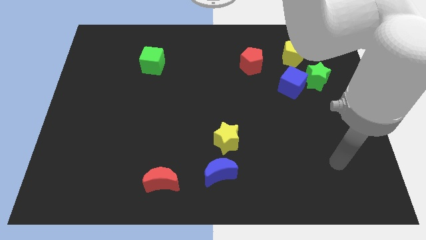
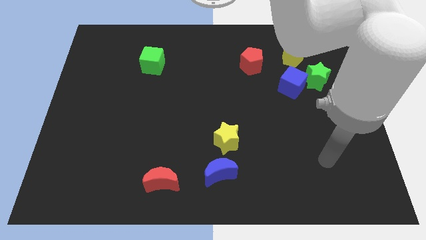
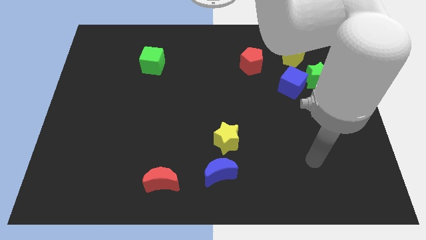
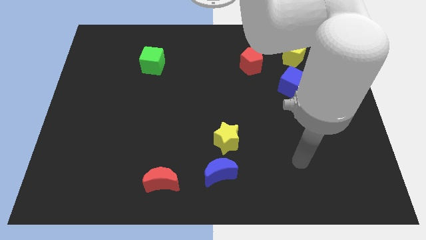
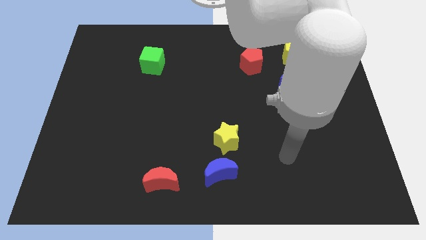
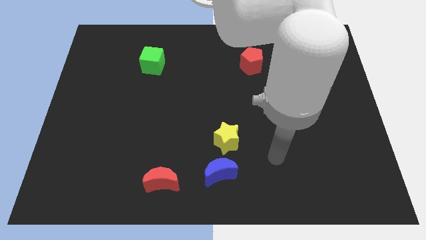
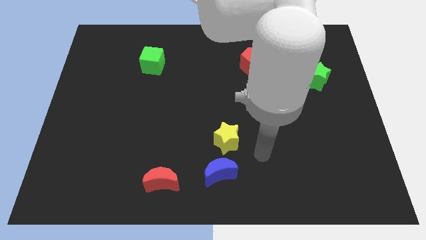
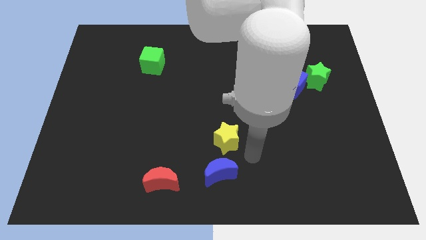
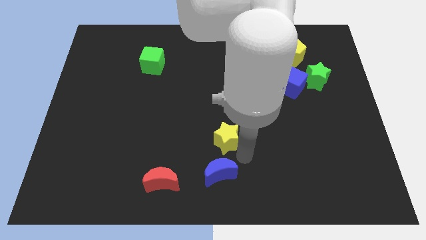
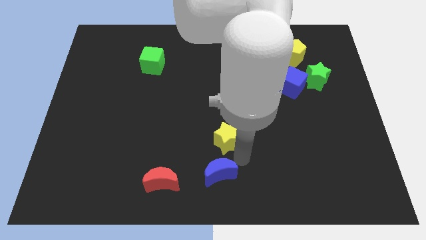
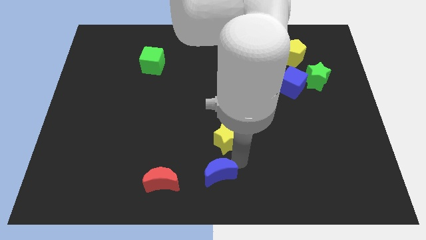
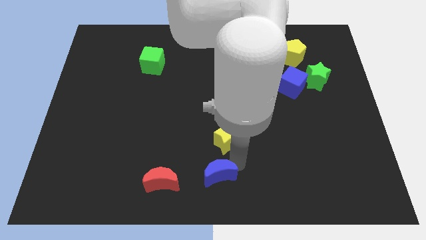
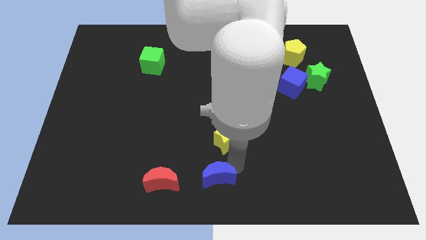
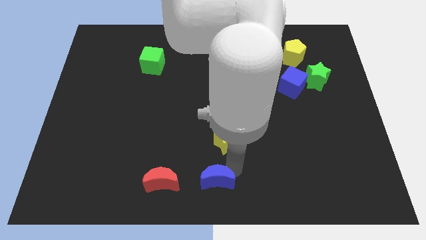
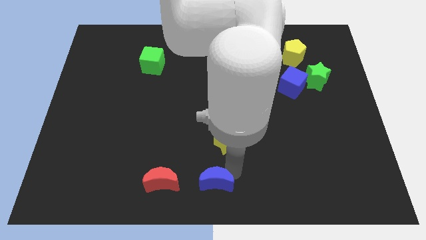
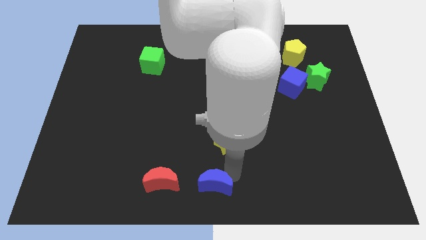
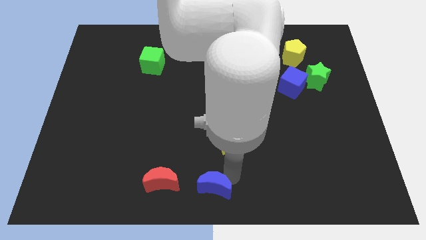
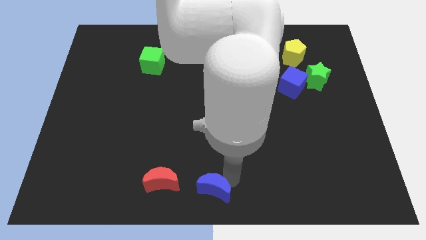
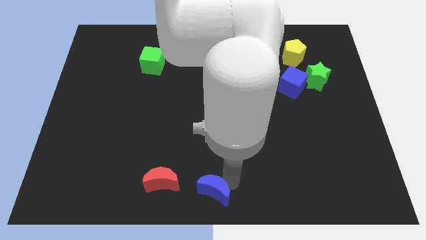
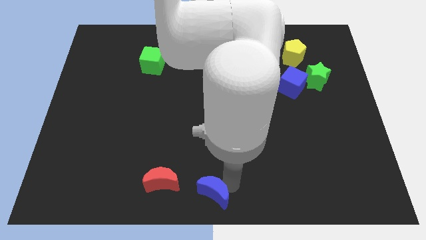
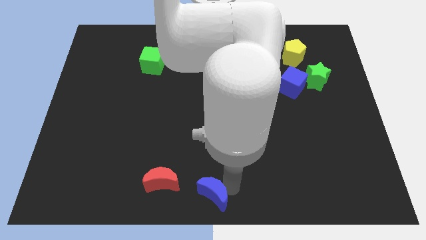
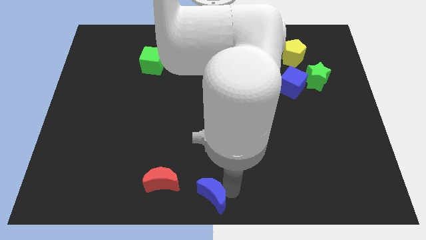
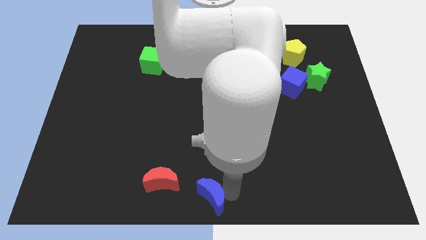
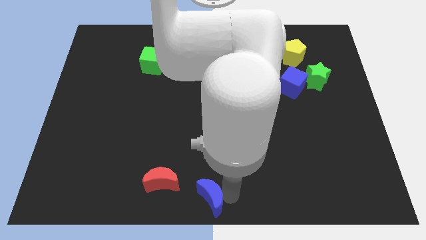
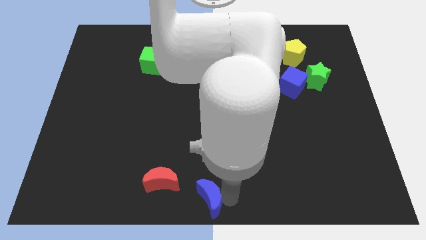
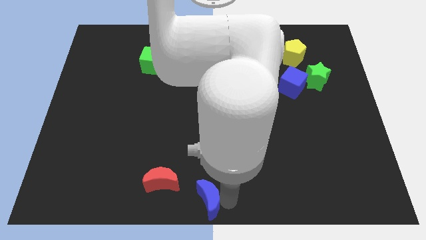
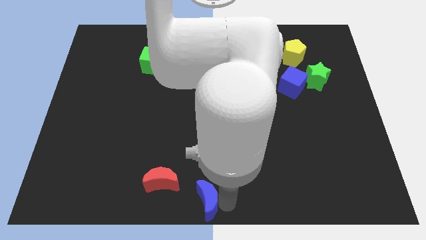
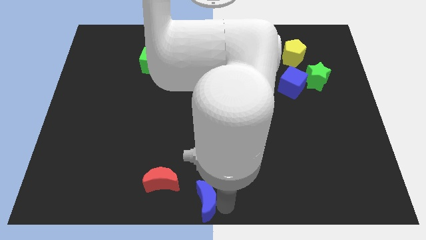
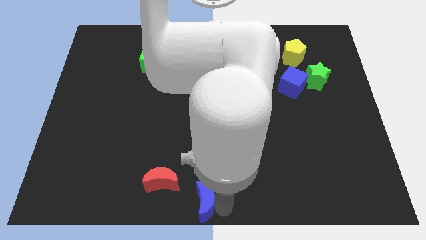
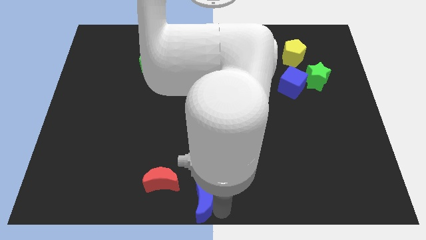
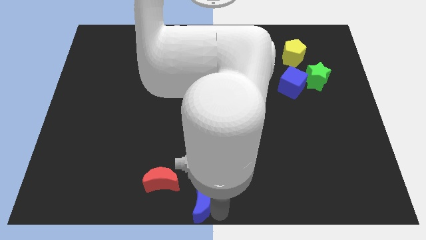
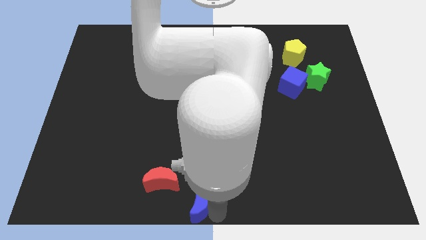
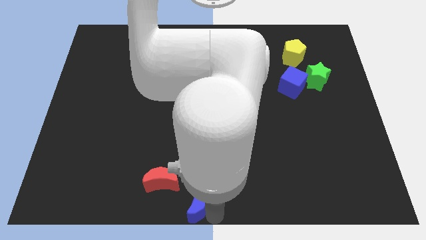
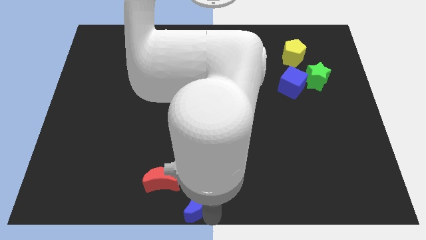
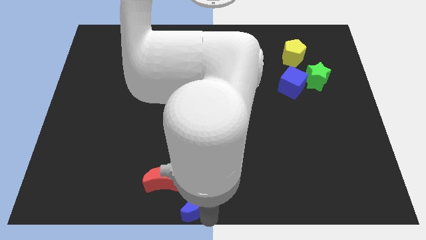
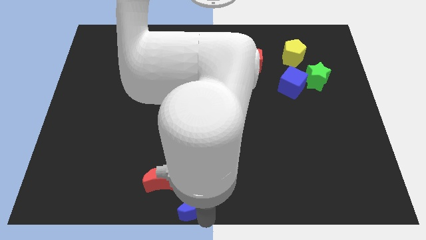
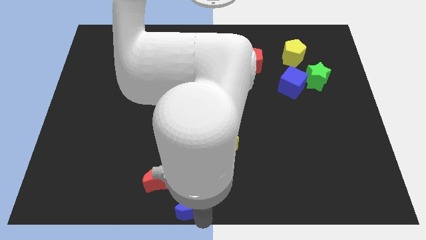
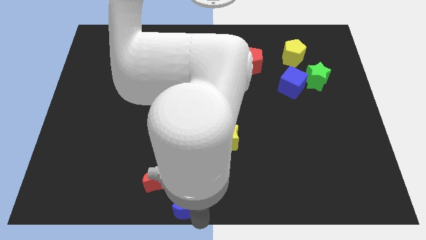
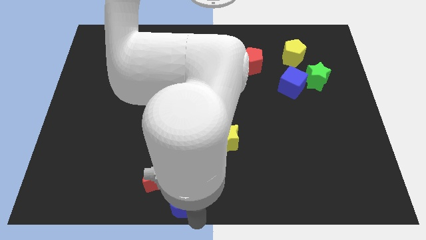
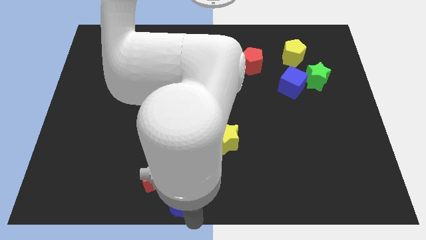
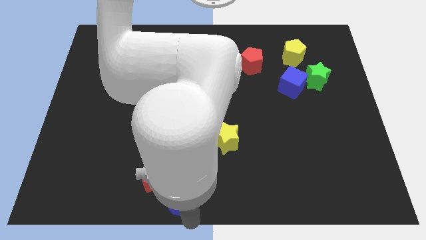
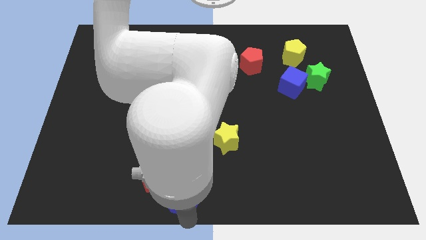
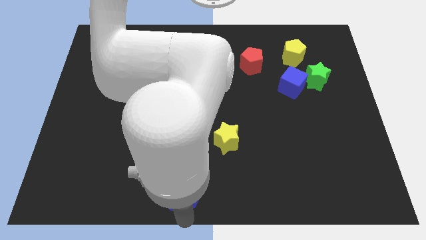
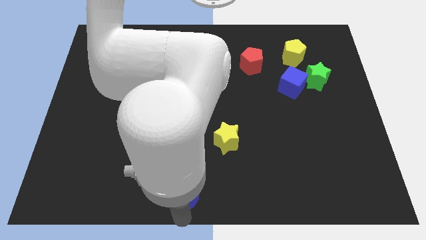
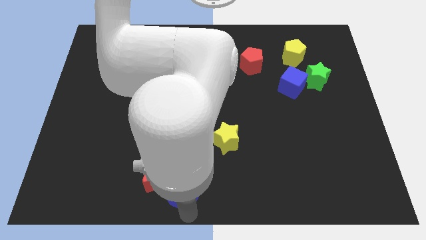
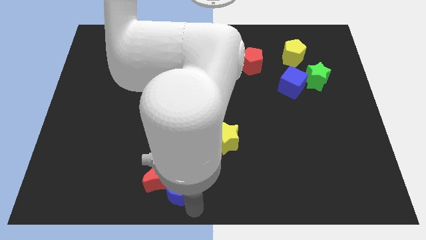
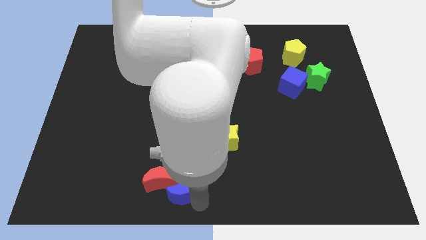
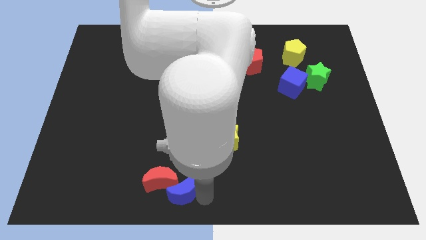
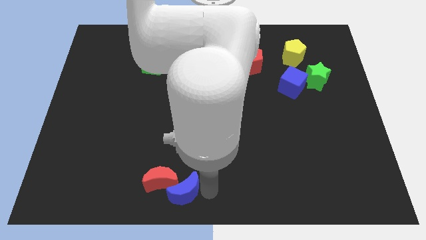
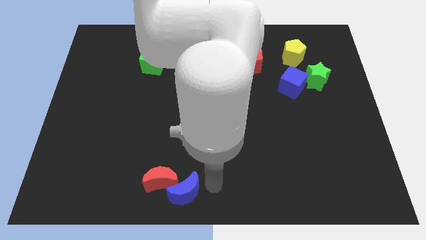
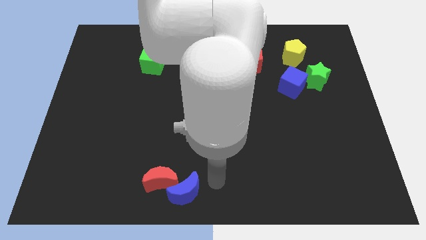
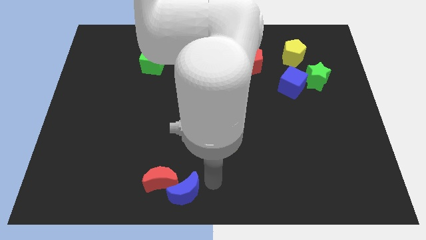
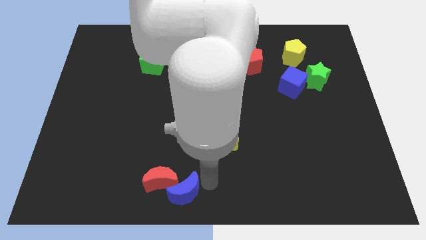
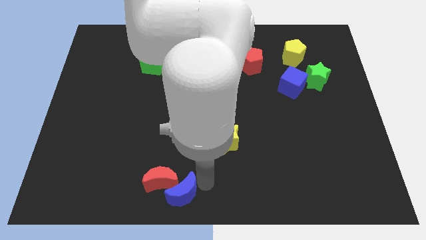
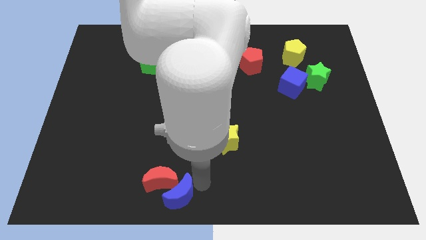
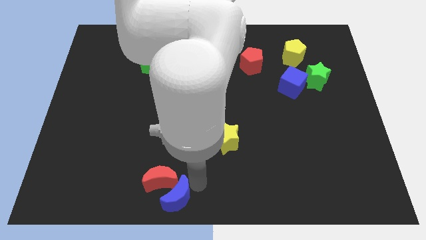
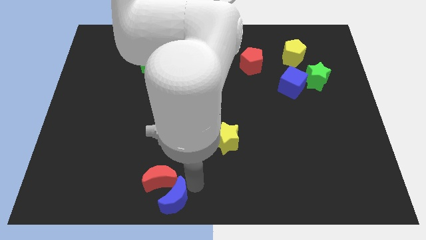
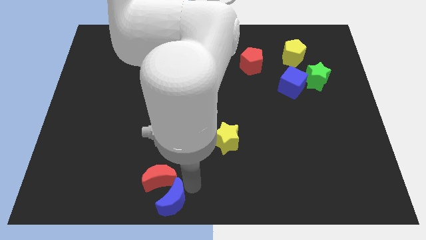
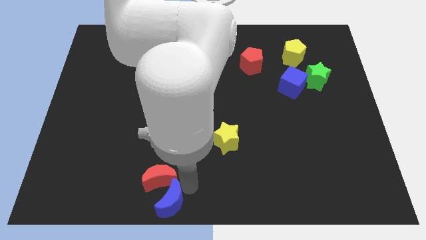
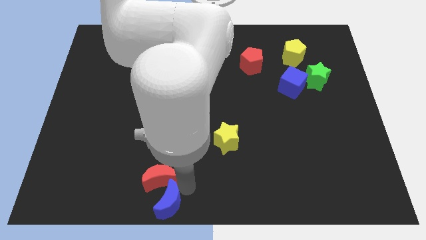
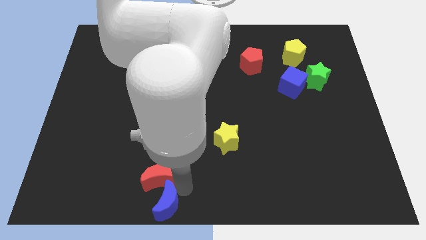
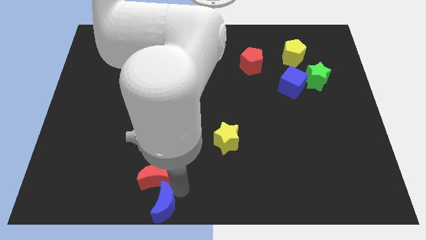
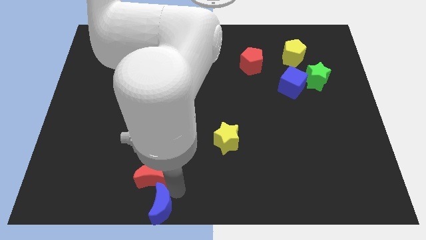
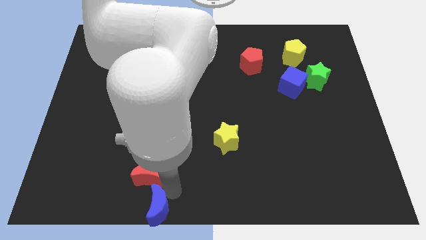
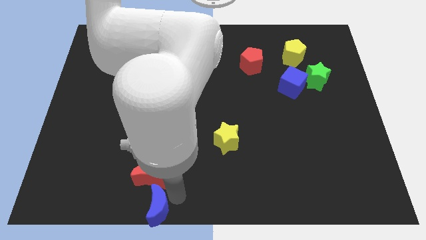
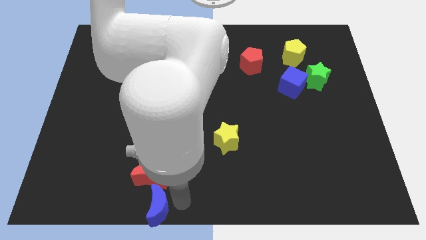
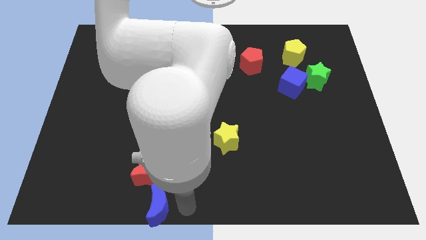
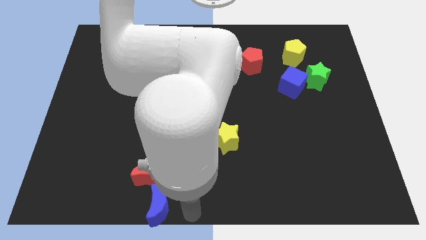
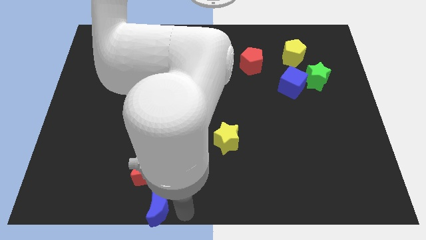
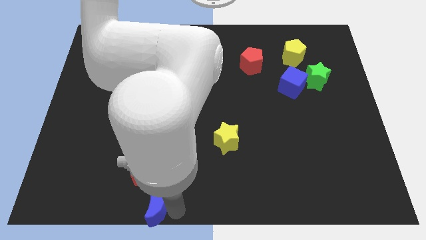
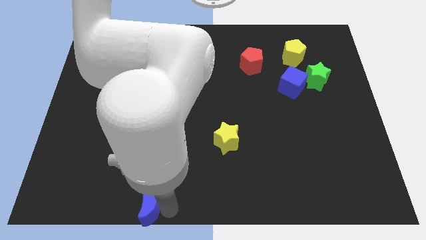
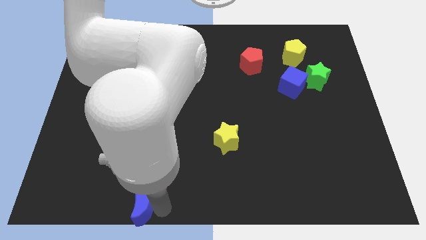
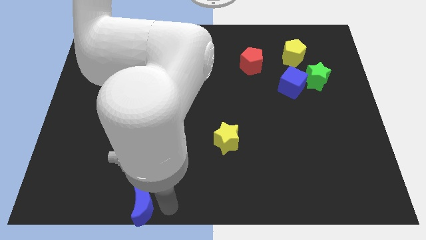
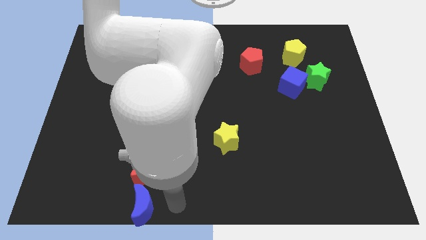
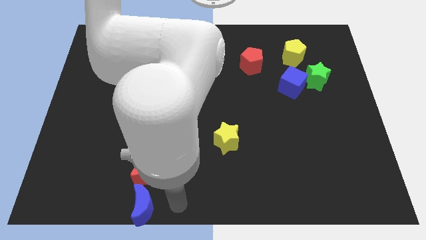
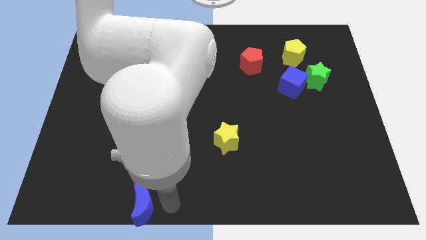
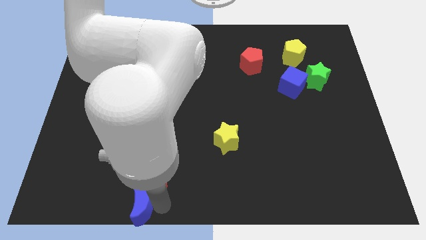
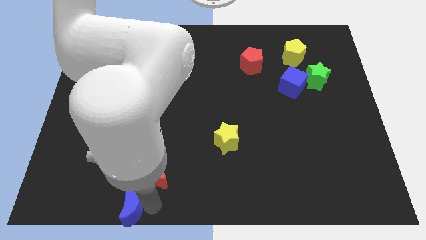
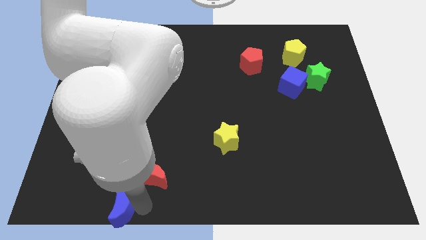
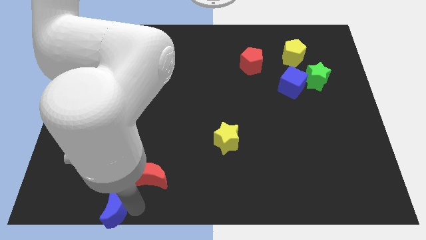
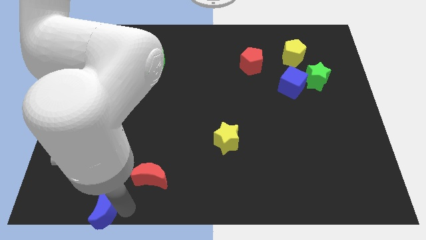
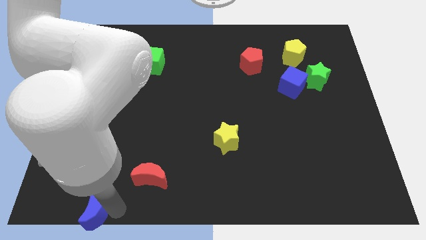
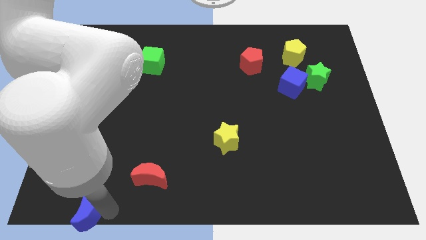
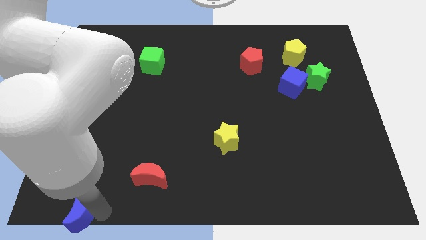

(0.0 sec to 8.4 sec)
slide the blue moon to the bottom left corner
